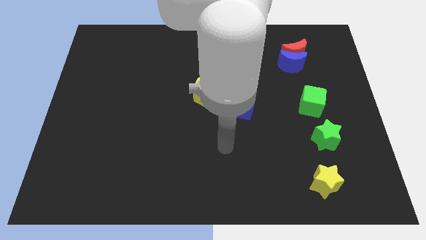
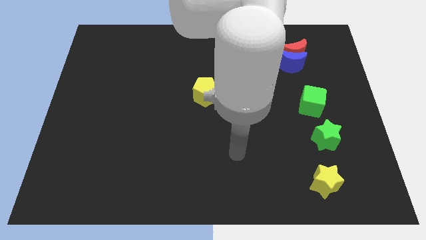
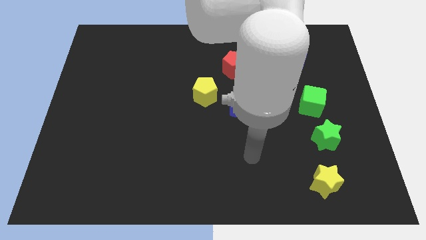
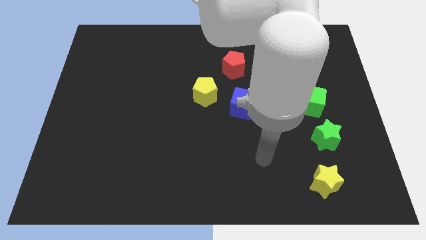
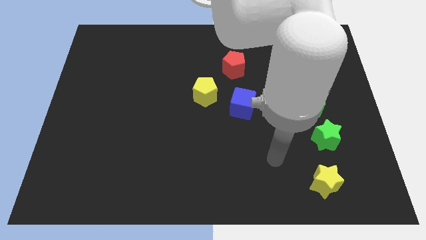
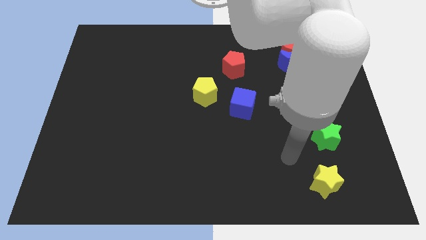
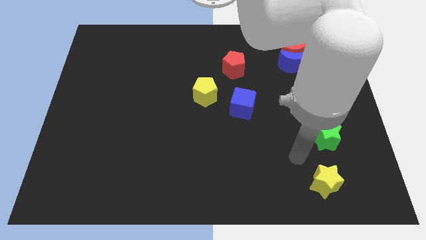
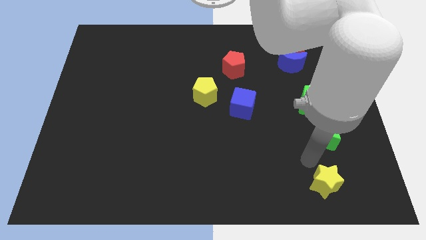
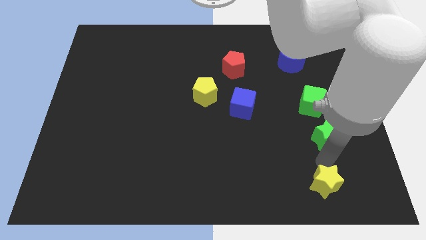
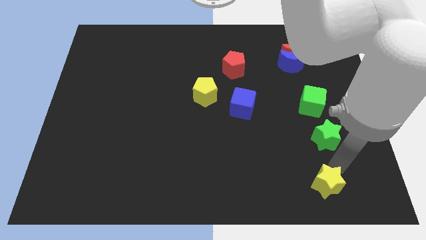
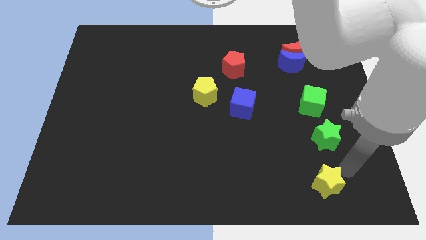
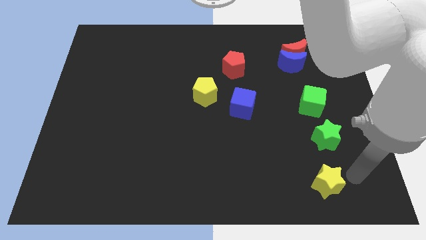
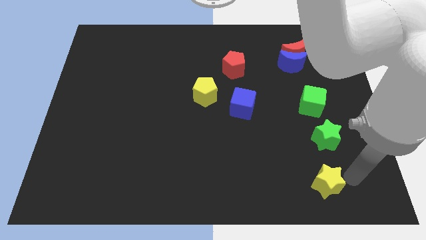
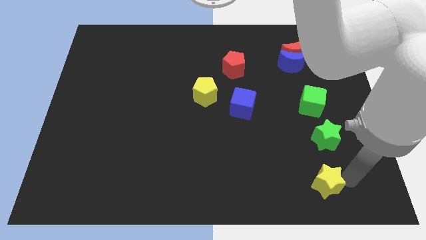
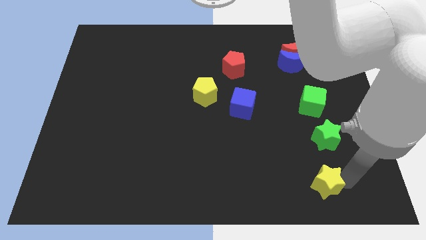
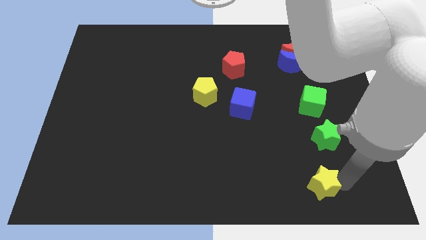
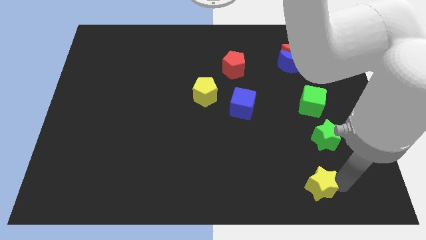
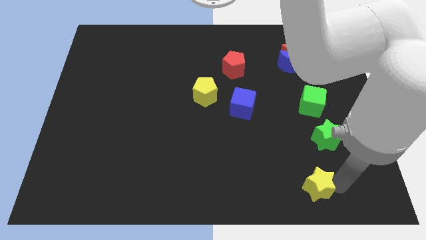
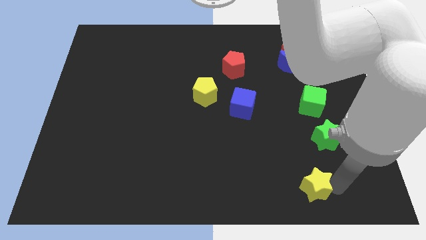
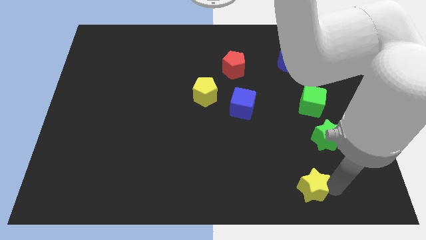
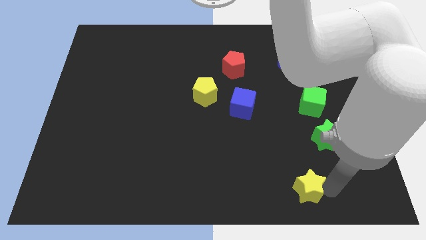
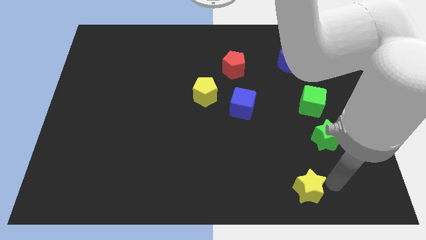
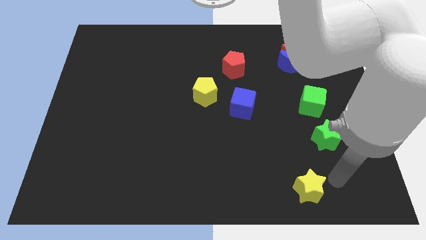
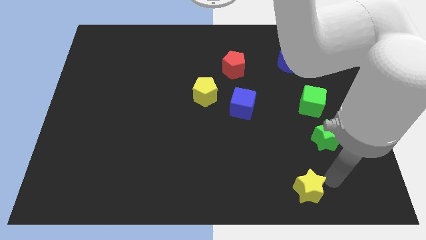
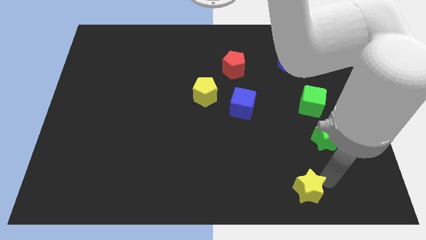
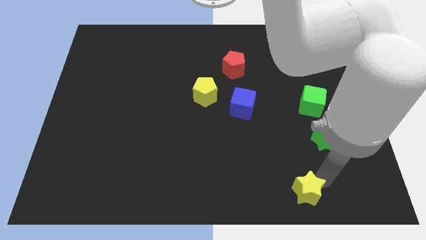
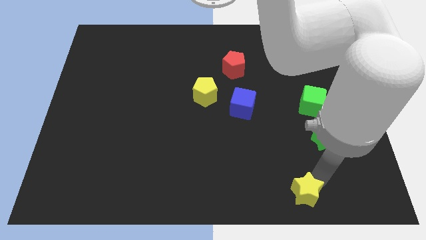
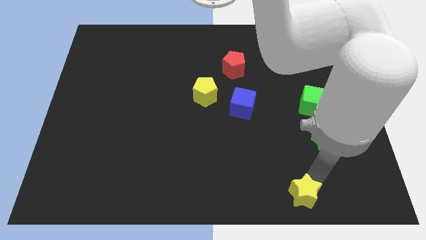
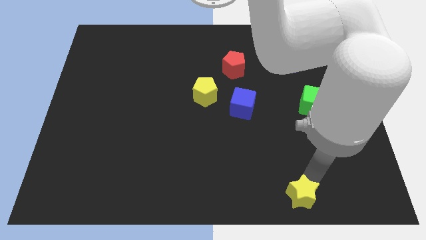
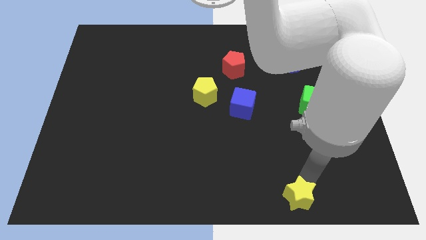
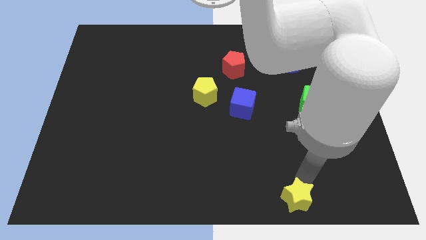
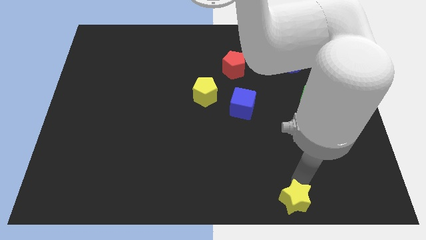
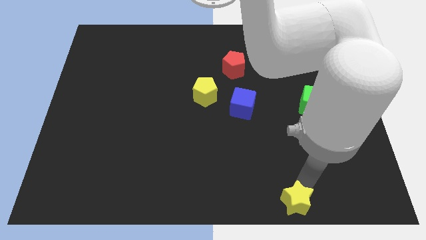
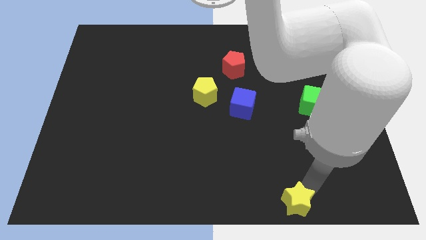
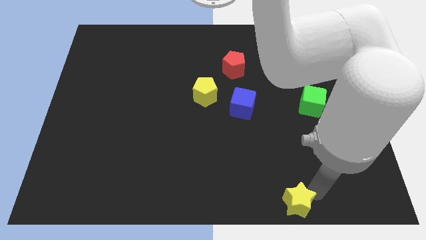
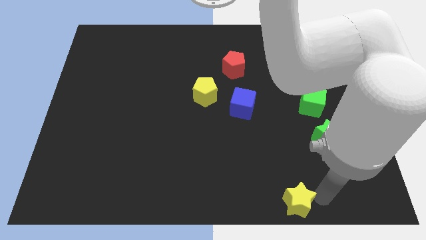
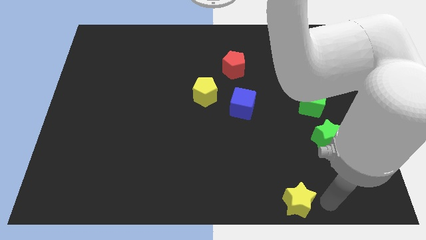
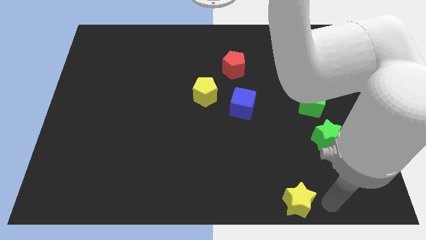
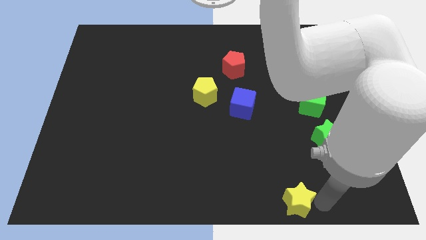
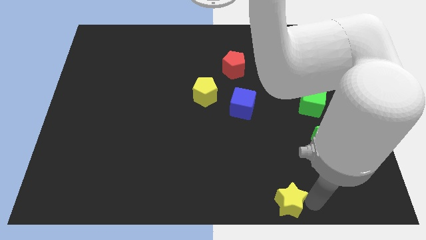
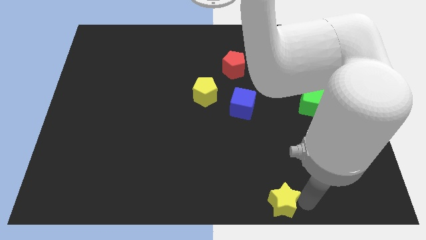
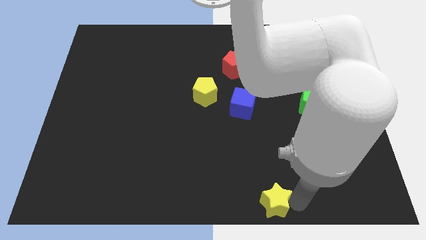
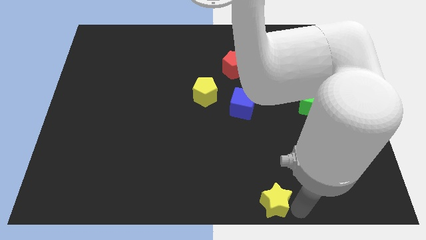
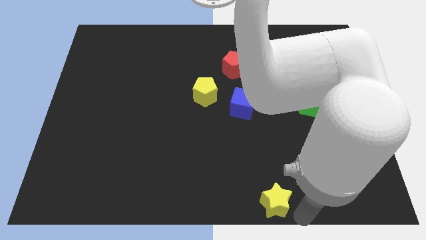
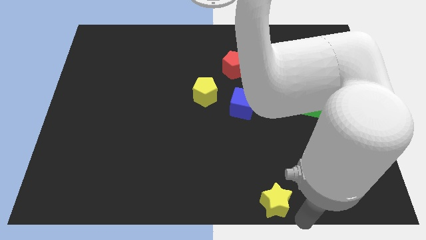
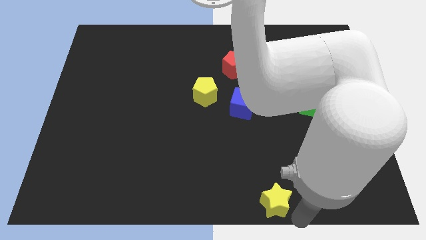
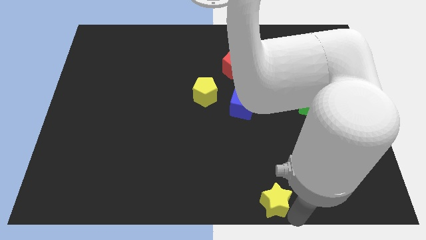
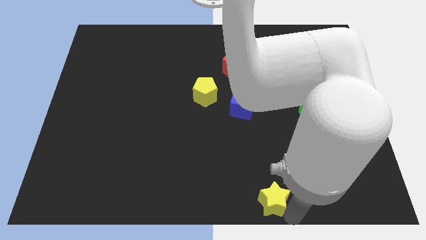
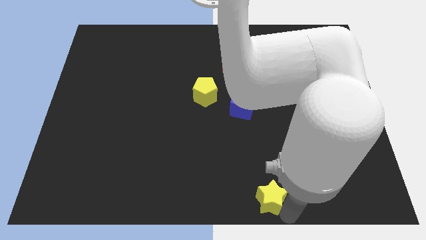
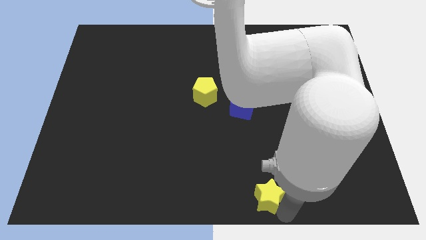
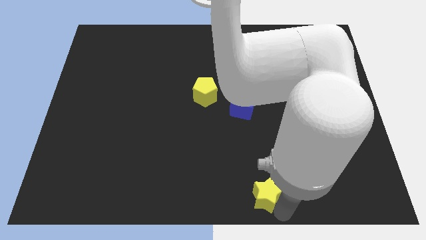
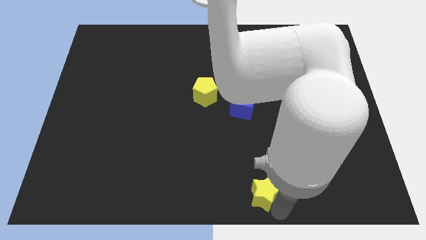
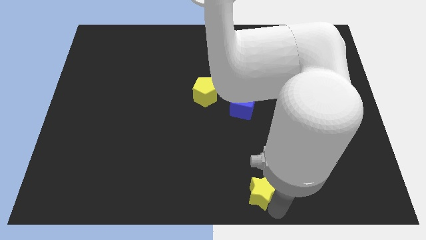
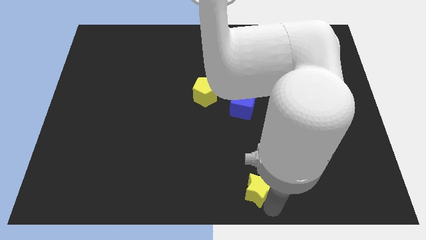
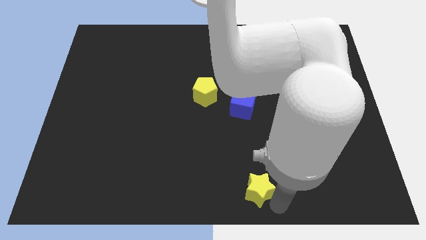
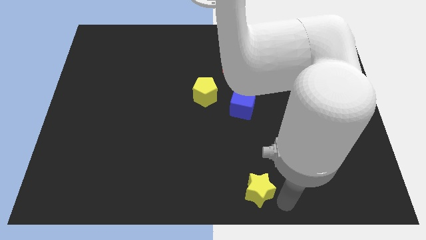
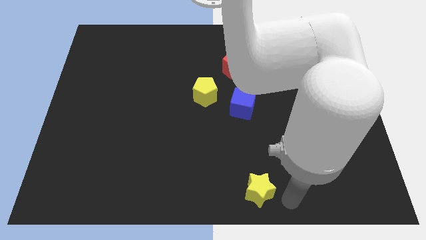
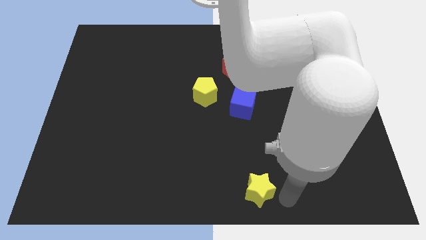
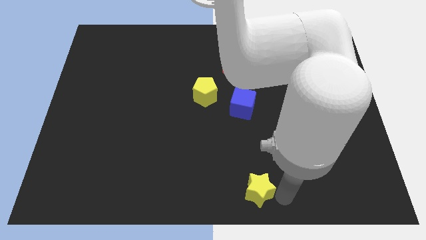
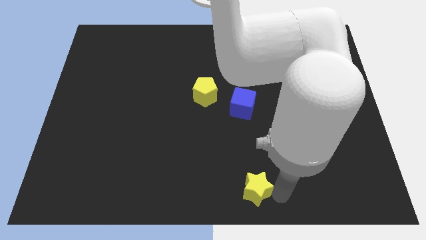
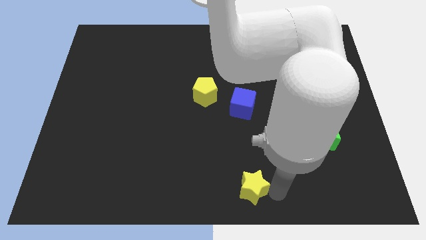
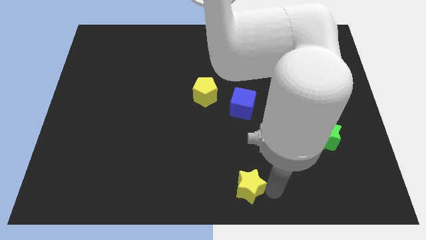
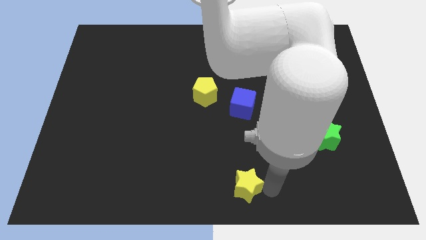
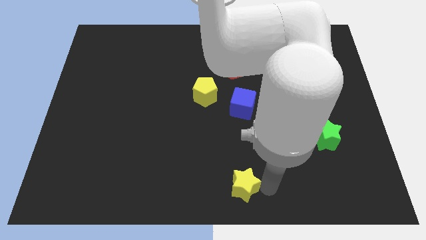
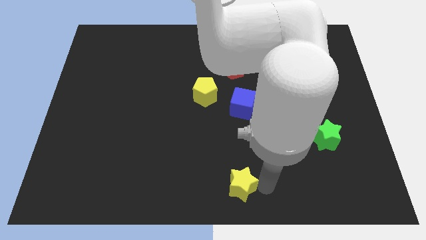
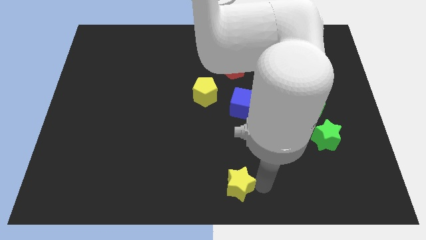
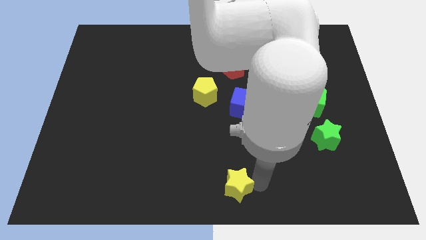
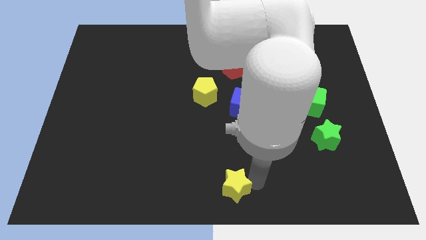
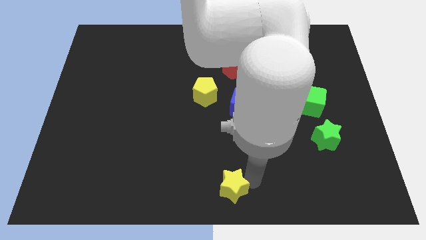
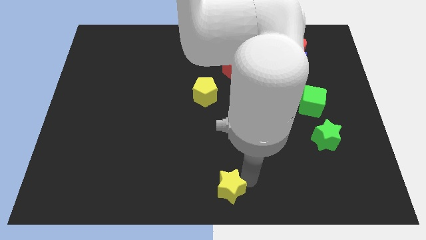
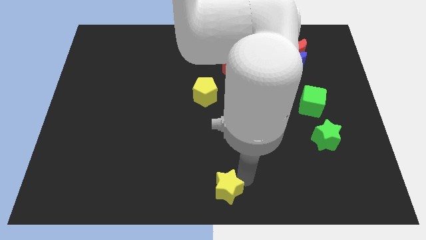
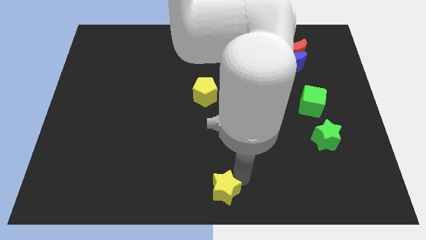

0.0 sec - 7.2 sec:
push the yellow star to the left

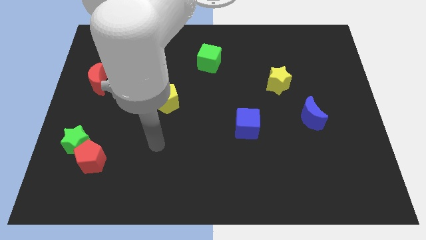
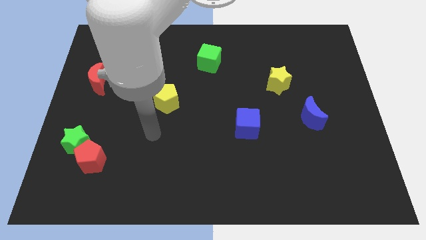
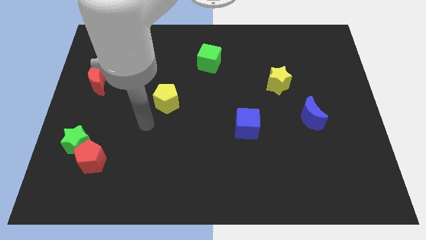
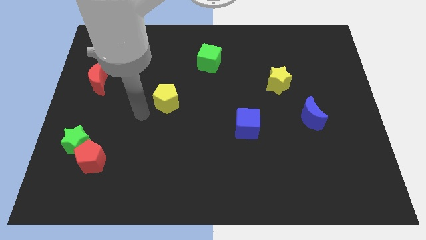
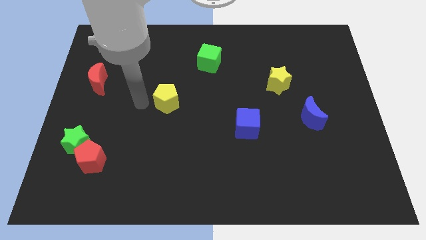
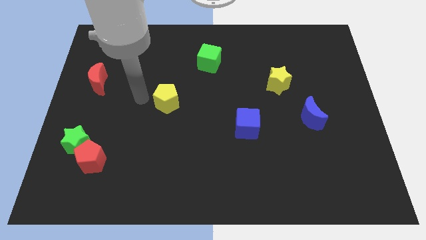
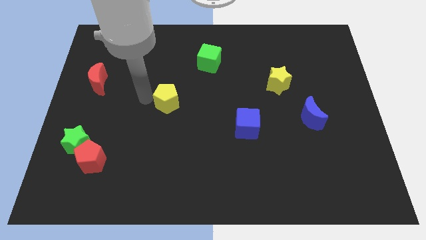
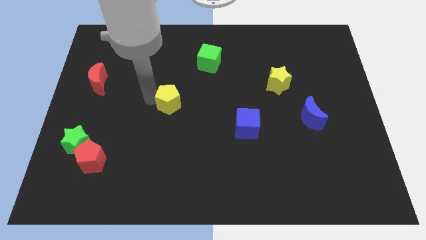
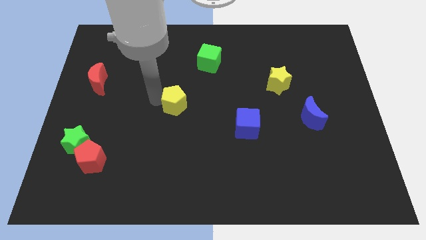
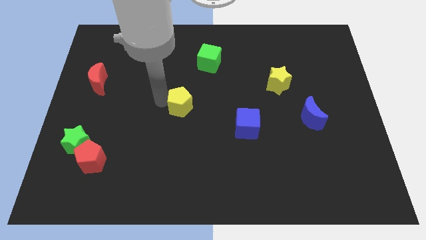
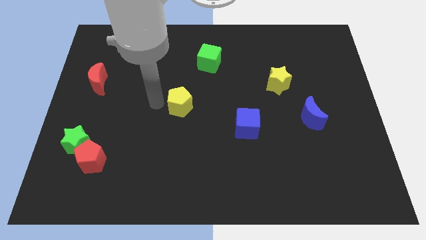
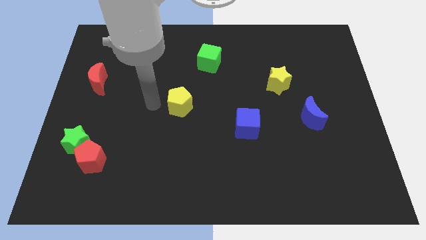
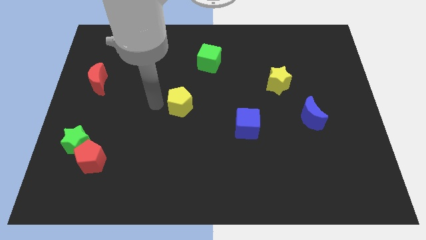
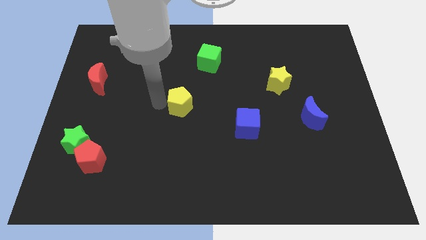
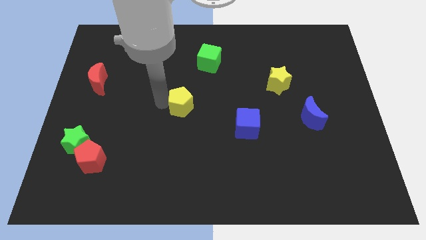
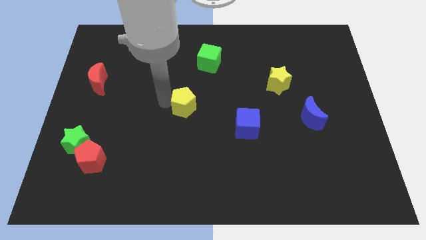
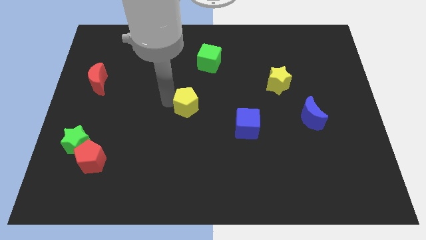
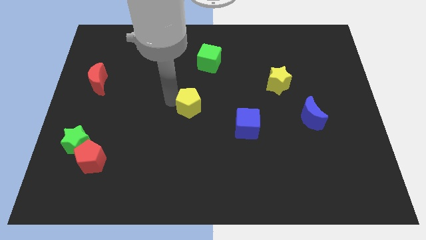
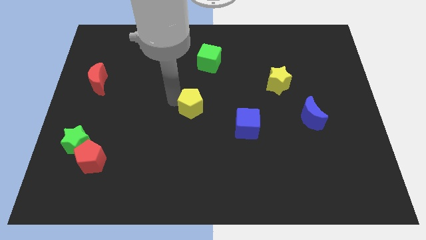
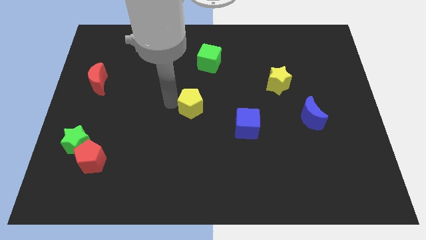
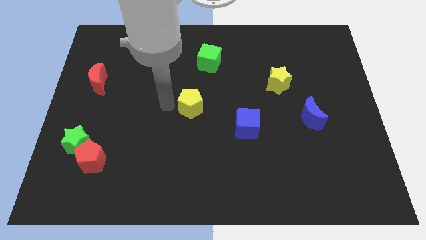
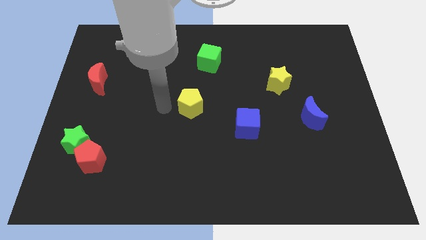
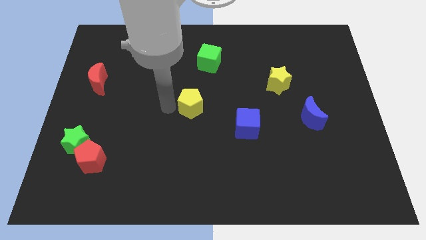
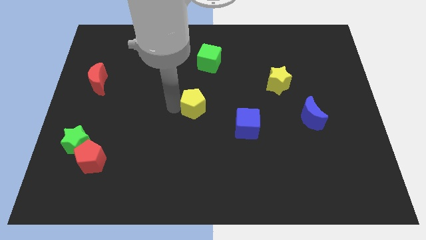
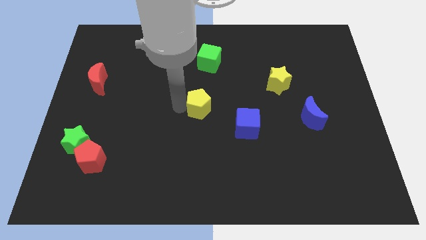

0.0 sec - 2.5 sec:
slightly move the yellow pentagon to the right
